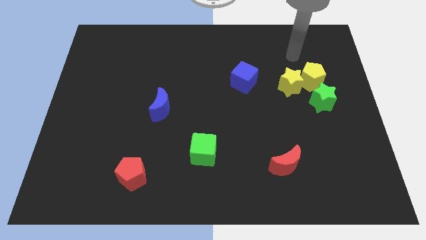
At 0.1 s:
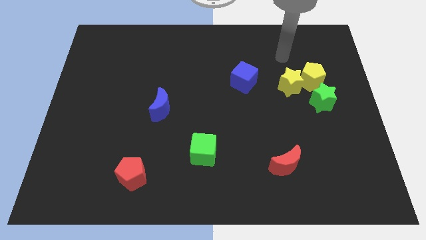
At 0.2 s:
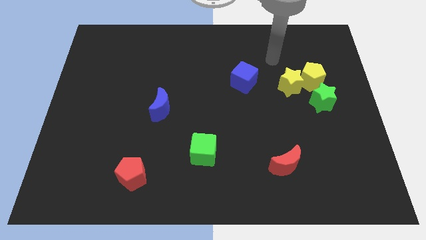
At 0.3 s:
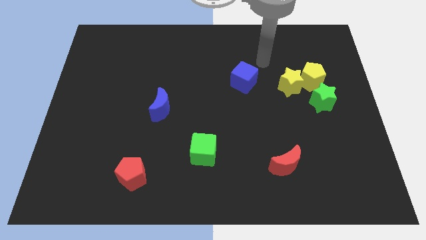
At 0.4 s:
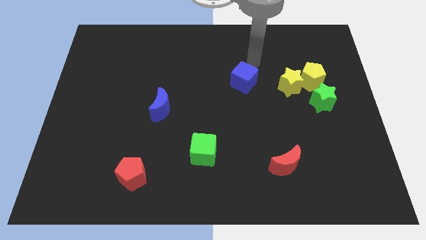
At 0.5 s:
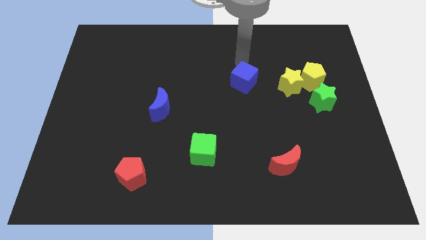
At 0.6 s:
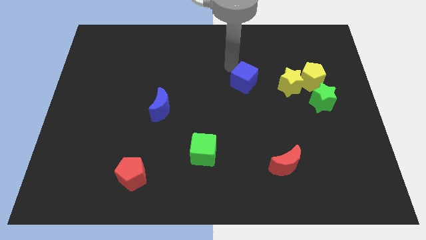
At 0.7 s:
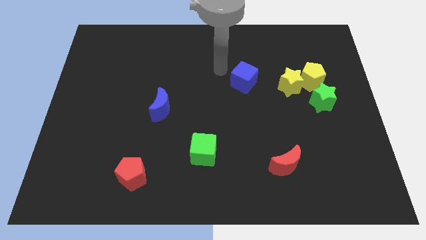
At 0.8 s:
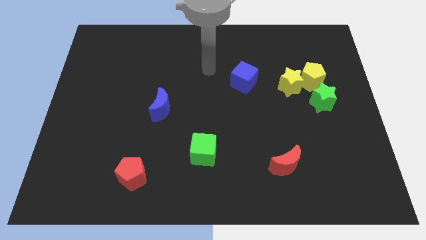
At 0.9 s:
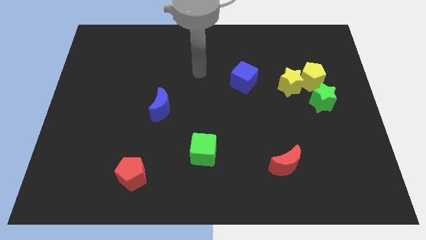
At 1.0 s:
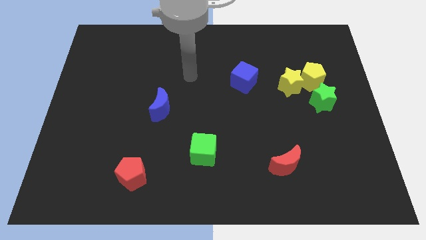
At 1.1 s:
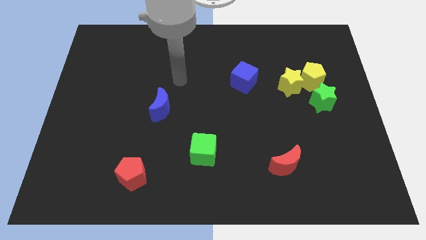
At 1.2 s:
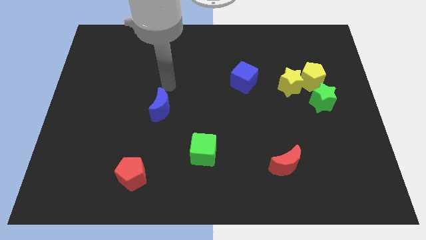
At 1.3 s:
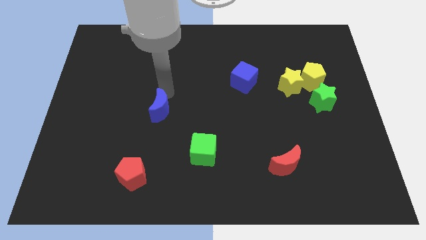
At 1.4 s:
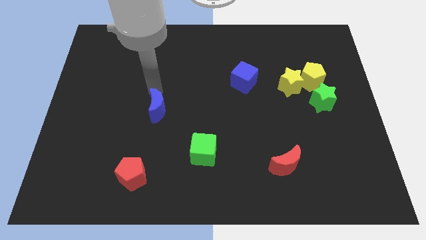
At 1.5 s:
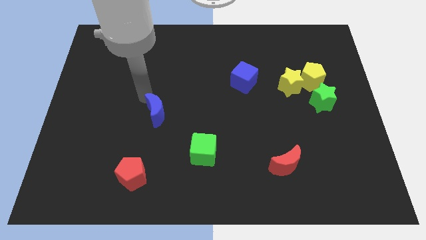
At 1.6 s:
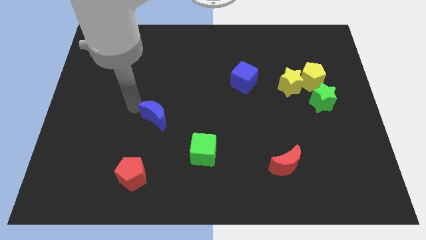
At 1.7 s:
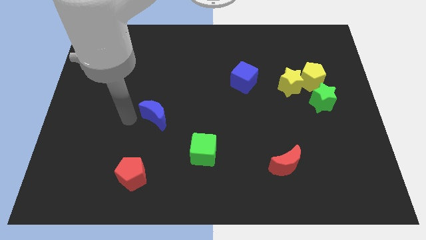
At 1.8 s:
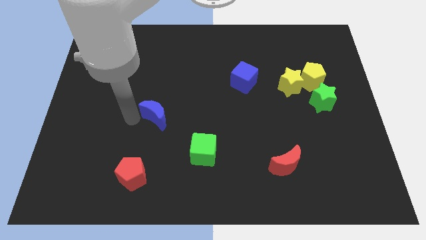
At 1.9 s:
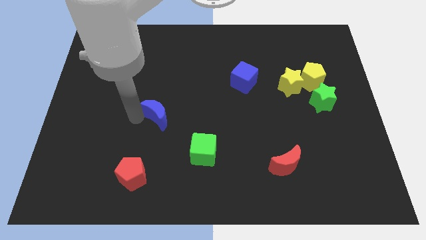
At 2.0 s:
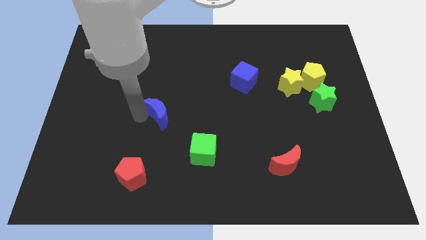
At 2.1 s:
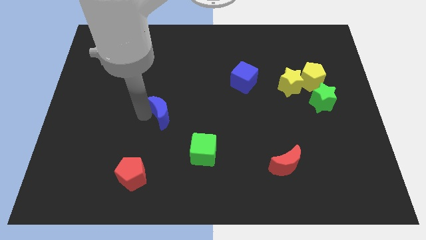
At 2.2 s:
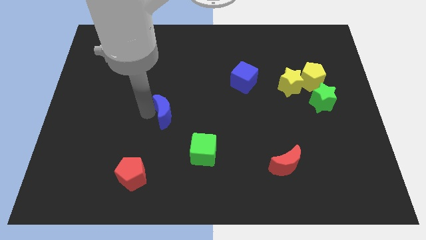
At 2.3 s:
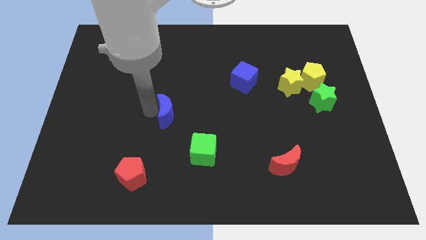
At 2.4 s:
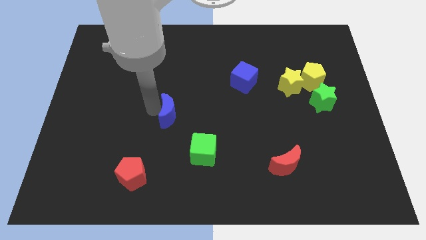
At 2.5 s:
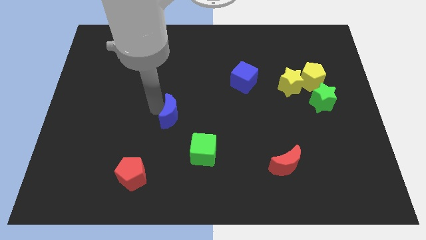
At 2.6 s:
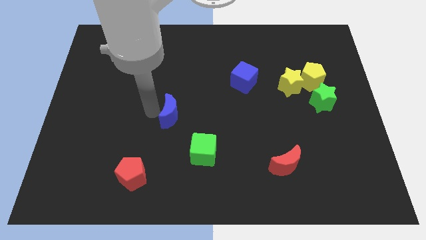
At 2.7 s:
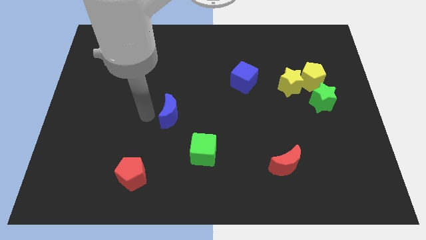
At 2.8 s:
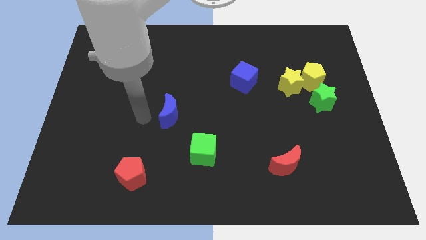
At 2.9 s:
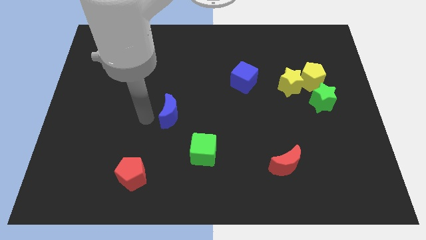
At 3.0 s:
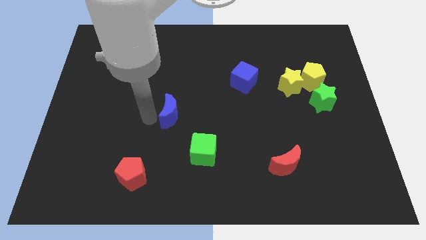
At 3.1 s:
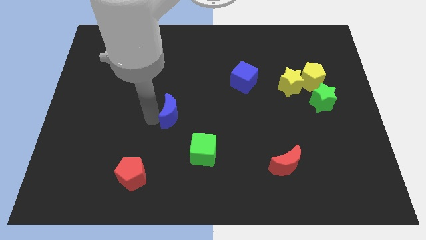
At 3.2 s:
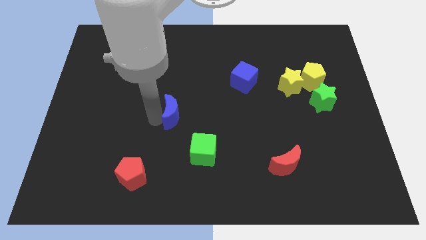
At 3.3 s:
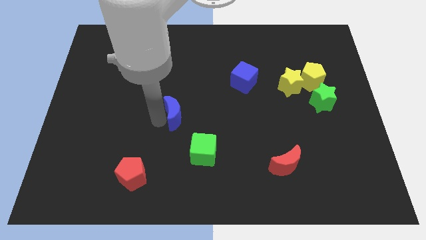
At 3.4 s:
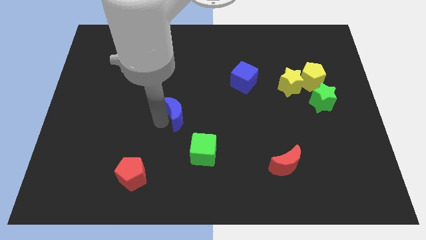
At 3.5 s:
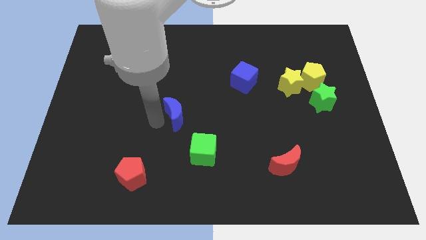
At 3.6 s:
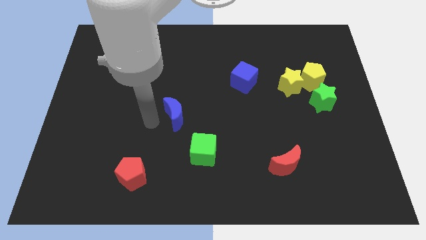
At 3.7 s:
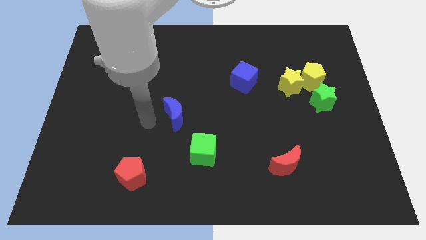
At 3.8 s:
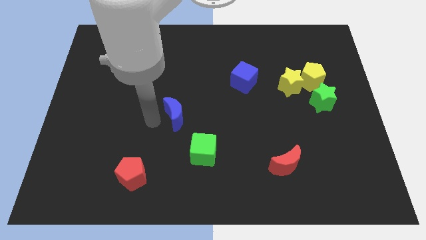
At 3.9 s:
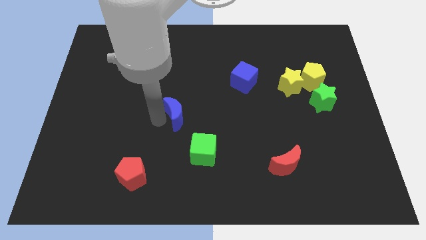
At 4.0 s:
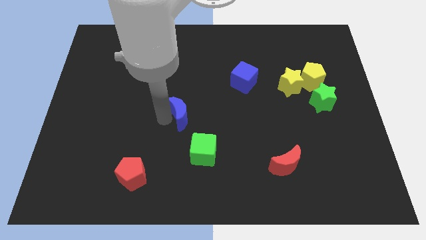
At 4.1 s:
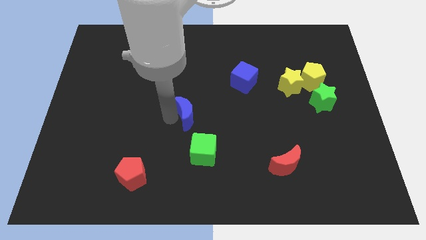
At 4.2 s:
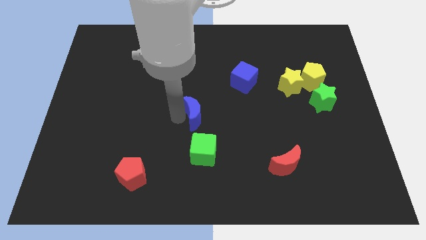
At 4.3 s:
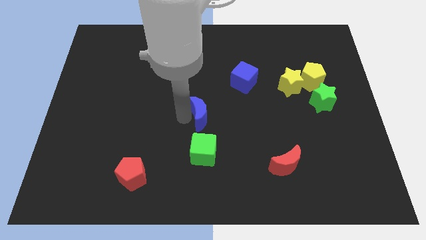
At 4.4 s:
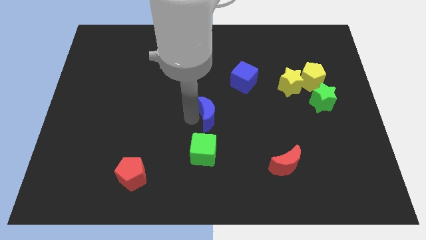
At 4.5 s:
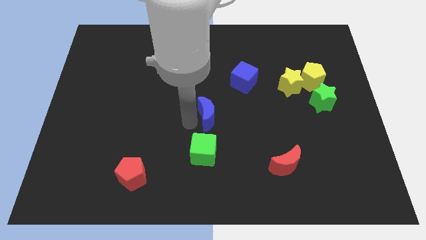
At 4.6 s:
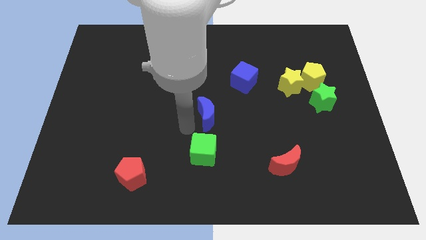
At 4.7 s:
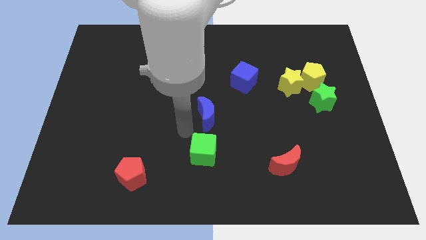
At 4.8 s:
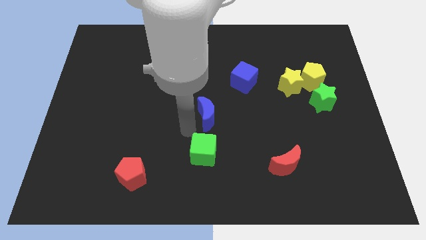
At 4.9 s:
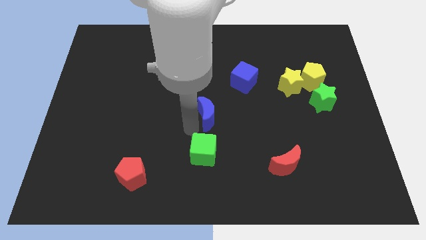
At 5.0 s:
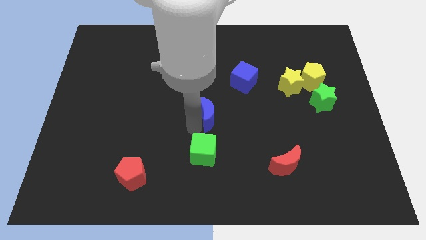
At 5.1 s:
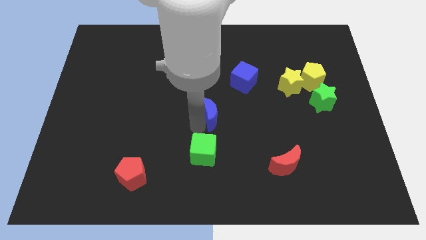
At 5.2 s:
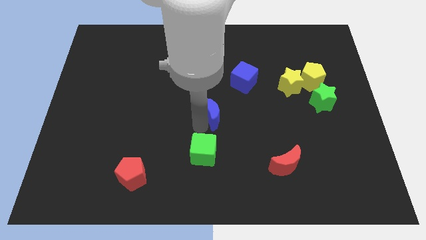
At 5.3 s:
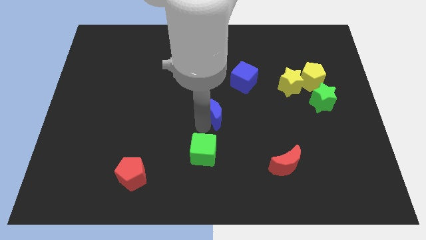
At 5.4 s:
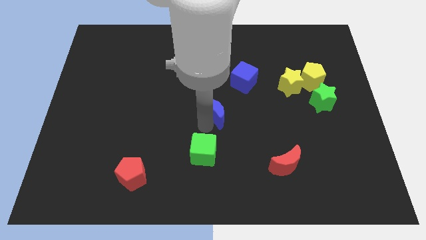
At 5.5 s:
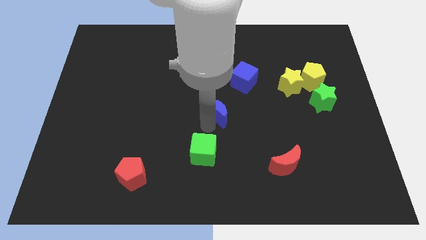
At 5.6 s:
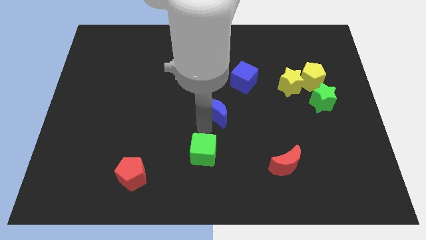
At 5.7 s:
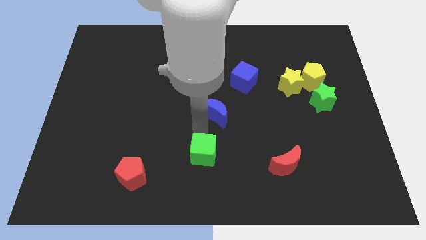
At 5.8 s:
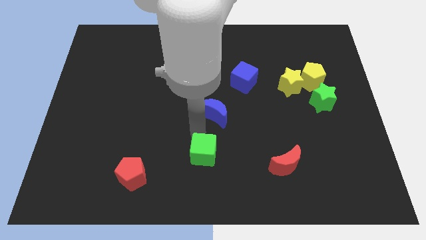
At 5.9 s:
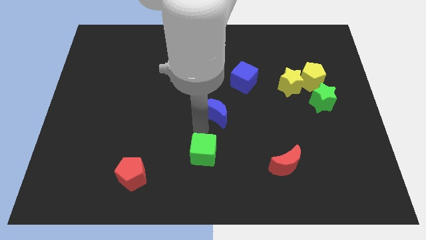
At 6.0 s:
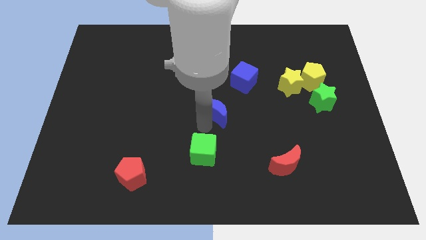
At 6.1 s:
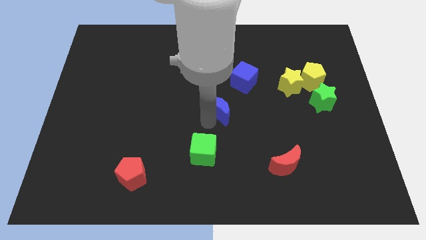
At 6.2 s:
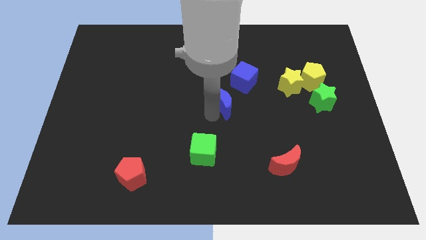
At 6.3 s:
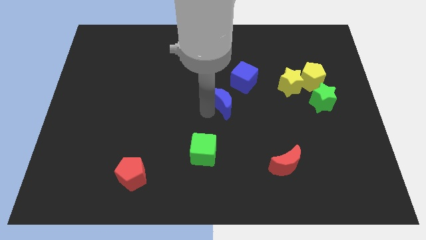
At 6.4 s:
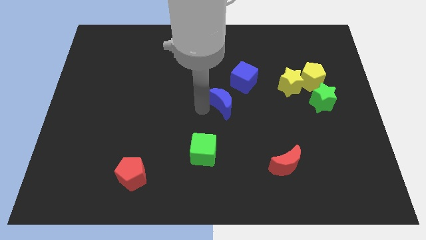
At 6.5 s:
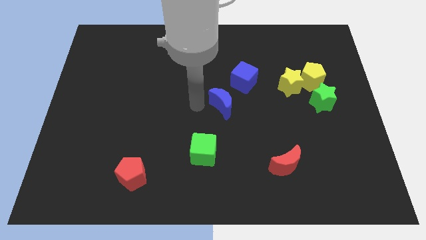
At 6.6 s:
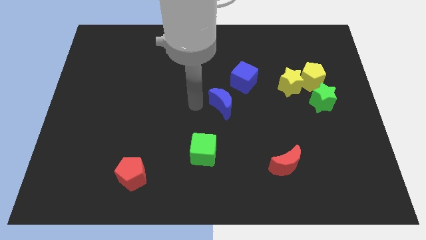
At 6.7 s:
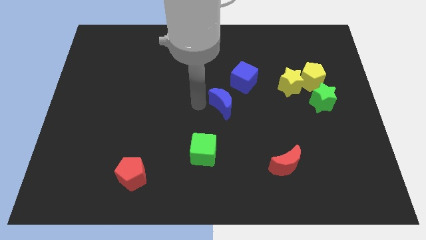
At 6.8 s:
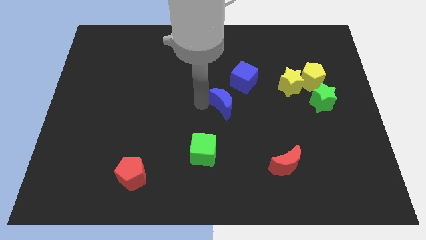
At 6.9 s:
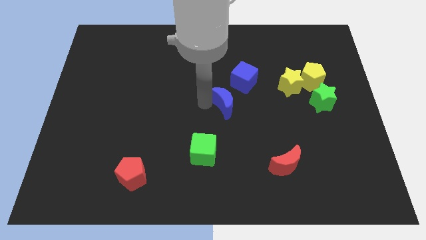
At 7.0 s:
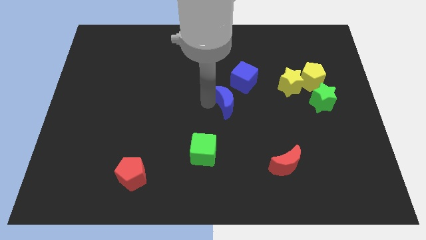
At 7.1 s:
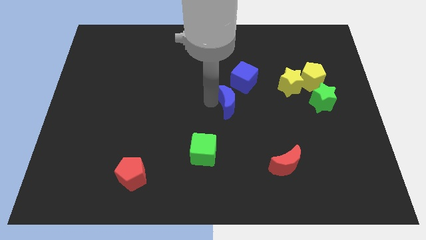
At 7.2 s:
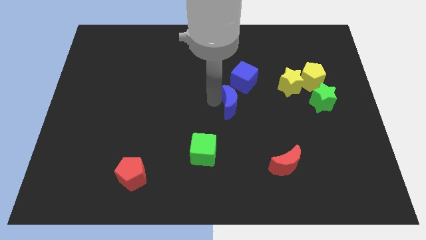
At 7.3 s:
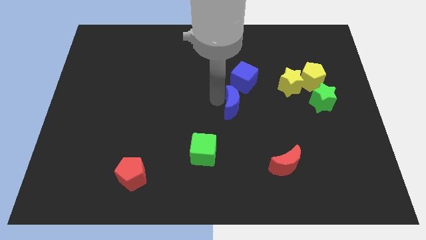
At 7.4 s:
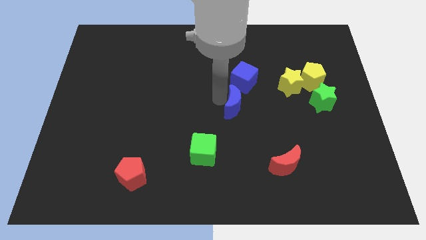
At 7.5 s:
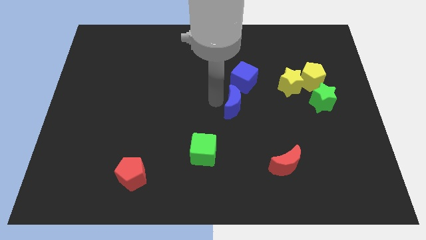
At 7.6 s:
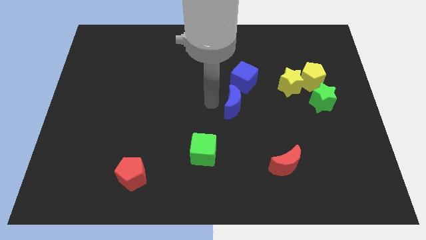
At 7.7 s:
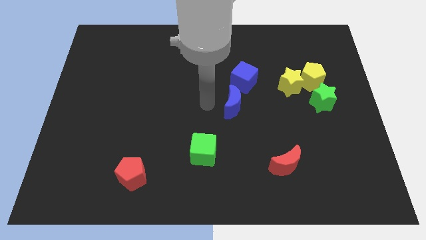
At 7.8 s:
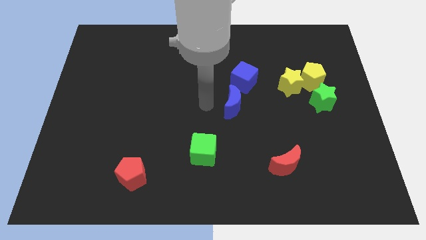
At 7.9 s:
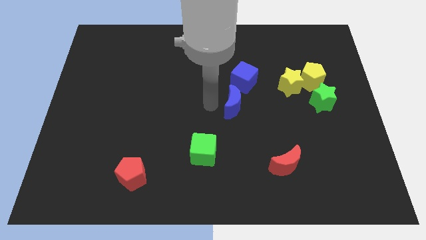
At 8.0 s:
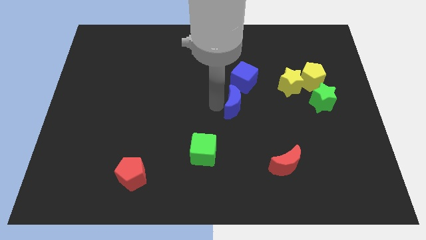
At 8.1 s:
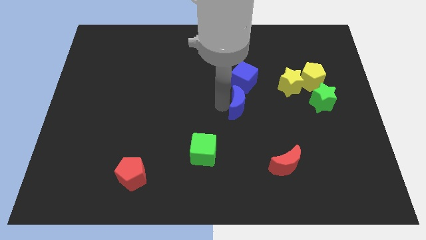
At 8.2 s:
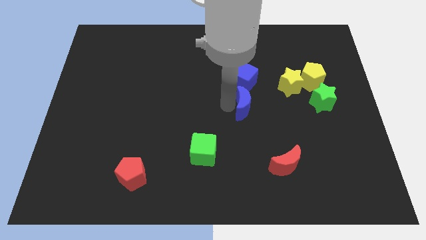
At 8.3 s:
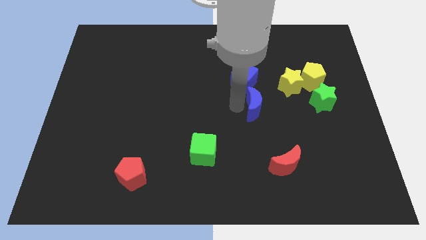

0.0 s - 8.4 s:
push the blue moon right

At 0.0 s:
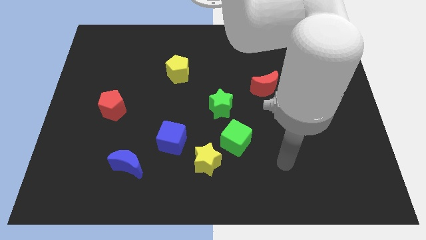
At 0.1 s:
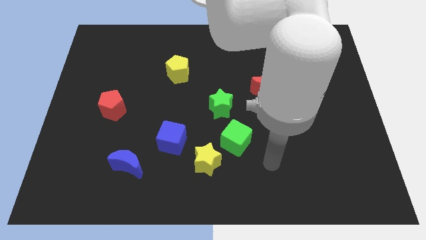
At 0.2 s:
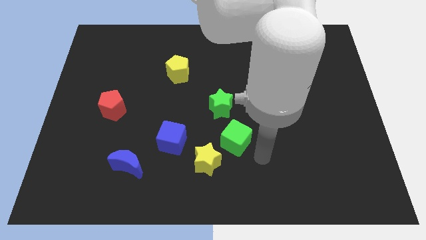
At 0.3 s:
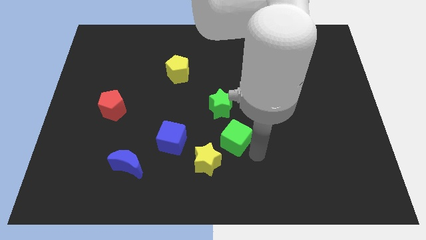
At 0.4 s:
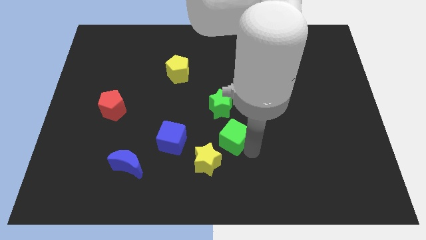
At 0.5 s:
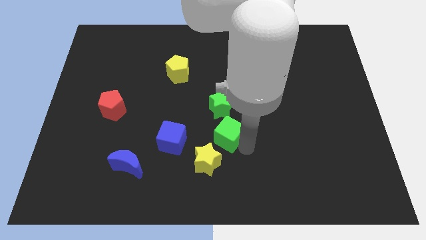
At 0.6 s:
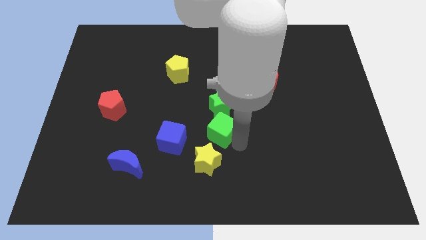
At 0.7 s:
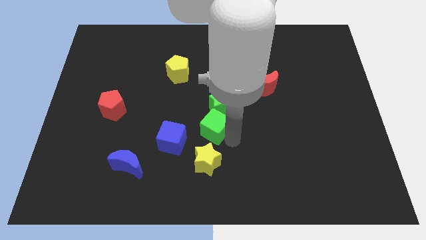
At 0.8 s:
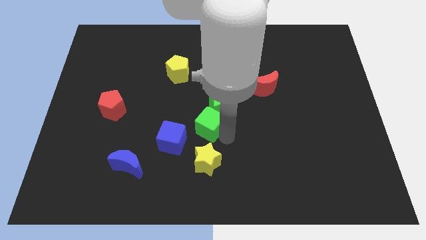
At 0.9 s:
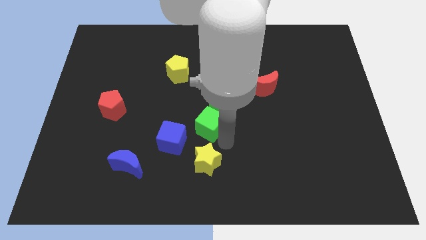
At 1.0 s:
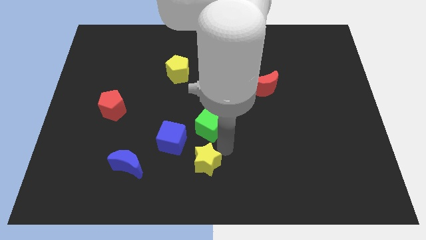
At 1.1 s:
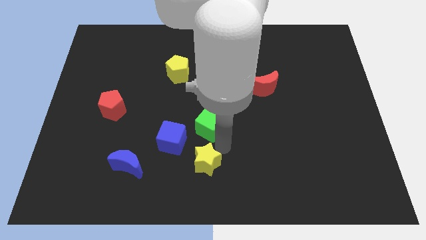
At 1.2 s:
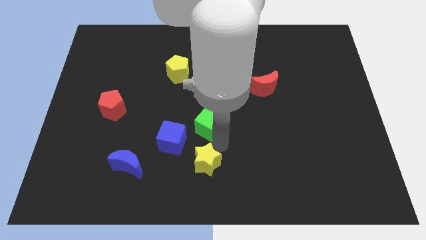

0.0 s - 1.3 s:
slide the green cube a little up and to the left diagonally
